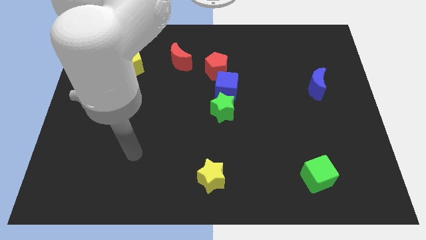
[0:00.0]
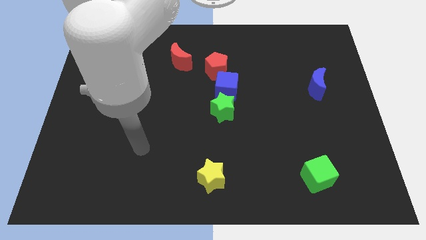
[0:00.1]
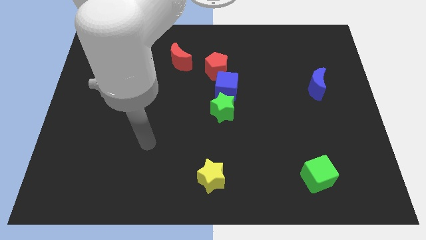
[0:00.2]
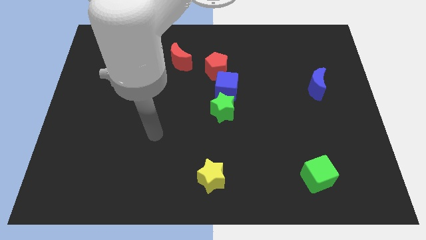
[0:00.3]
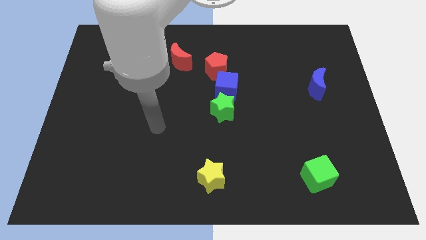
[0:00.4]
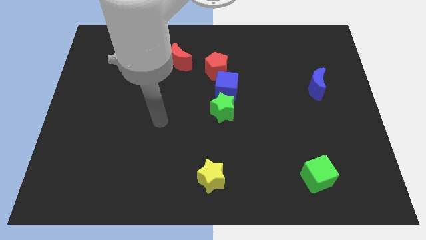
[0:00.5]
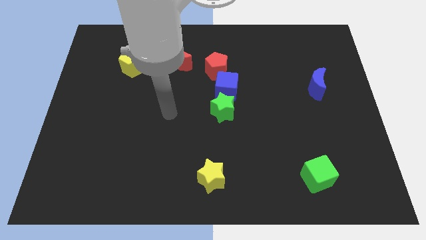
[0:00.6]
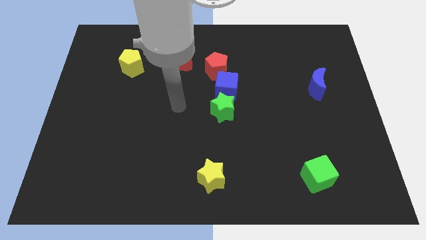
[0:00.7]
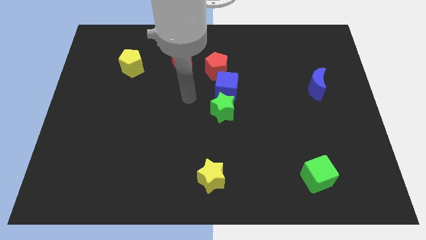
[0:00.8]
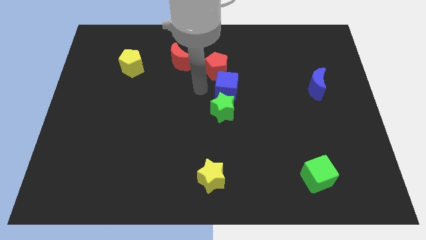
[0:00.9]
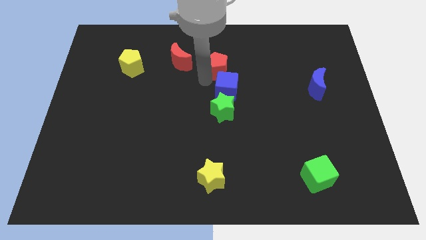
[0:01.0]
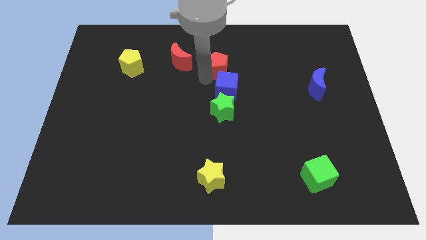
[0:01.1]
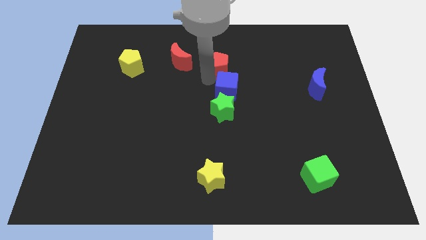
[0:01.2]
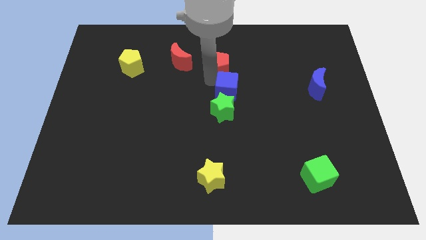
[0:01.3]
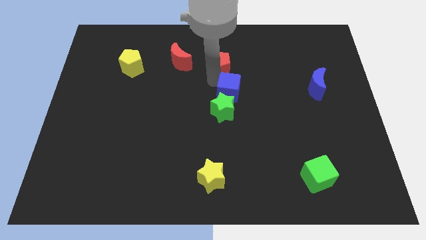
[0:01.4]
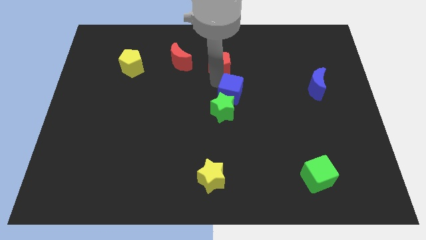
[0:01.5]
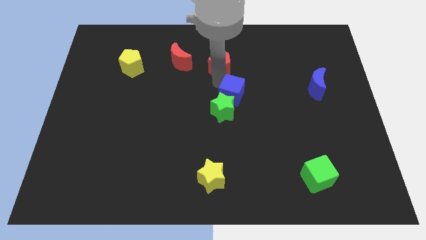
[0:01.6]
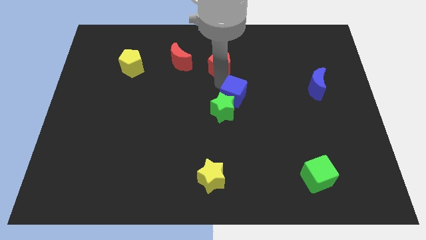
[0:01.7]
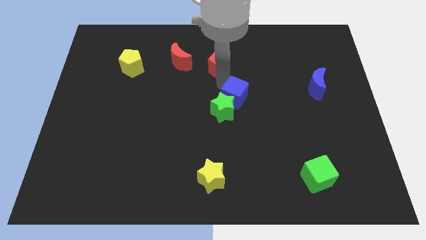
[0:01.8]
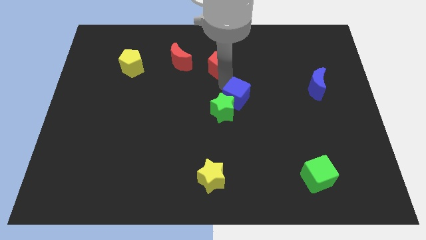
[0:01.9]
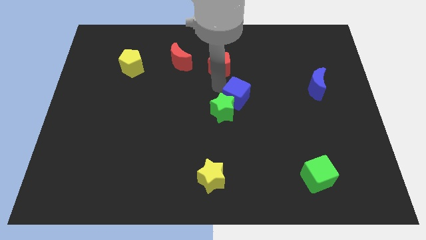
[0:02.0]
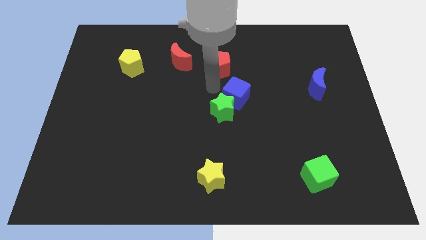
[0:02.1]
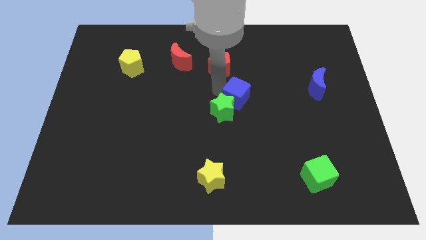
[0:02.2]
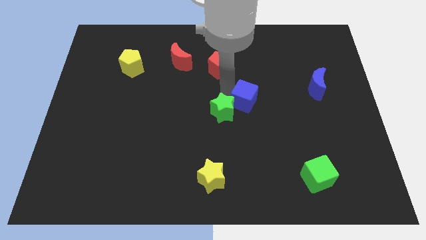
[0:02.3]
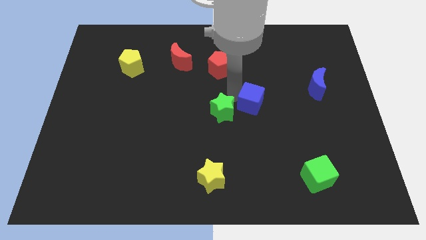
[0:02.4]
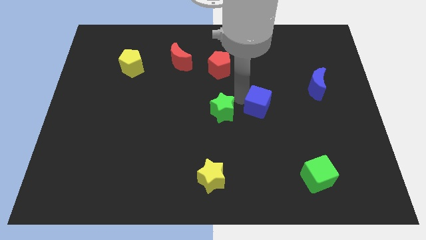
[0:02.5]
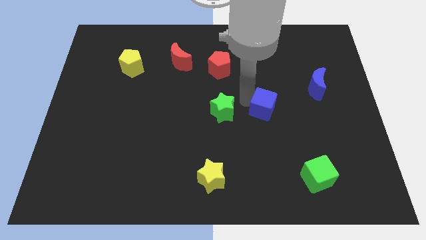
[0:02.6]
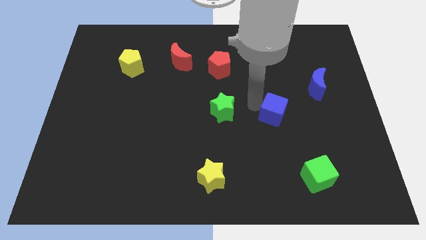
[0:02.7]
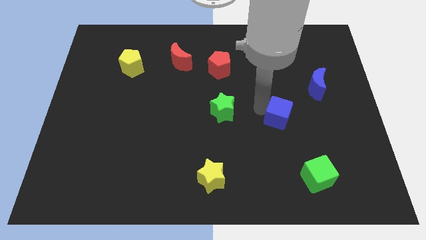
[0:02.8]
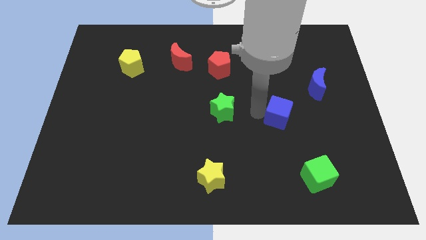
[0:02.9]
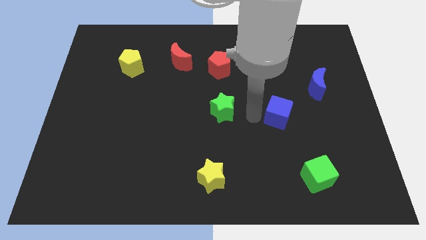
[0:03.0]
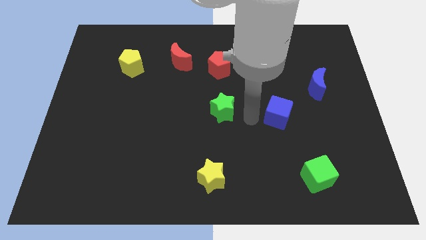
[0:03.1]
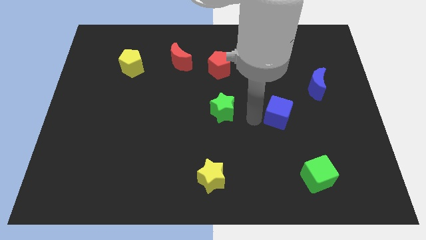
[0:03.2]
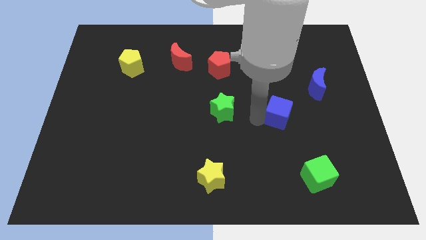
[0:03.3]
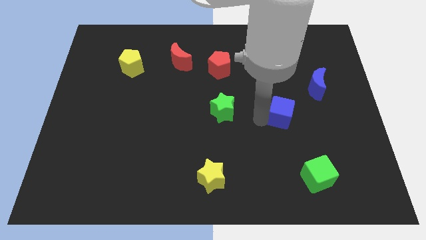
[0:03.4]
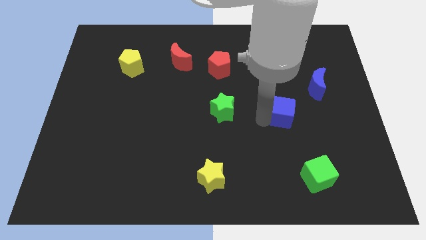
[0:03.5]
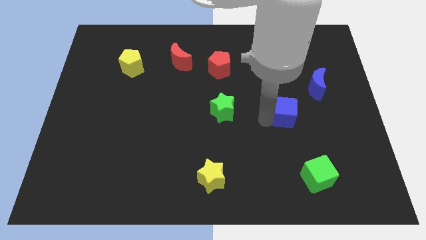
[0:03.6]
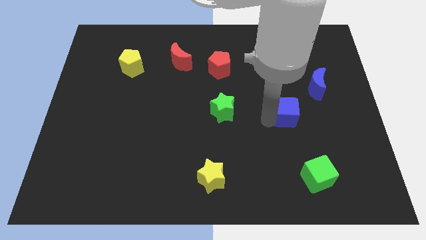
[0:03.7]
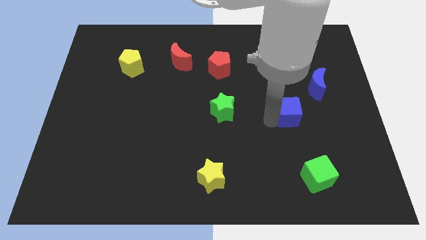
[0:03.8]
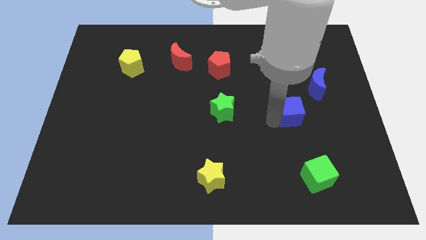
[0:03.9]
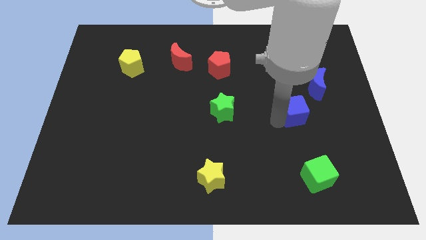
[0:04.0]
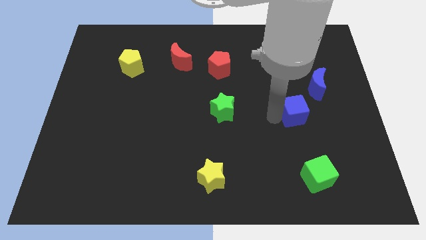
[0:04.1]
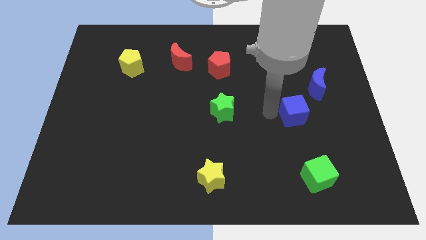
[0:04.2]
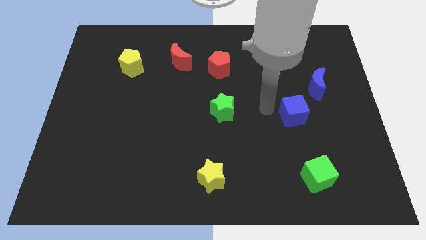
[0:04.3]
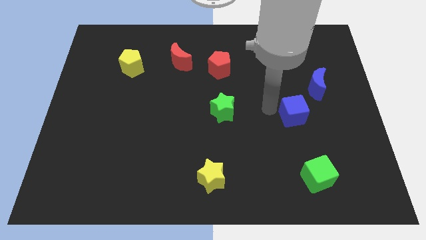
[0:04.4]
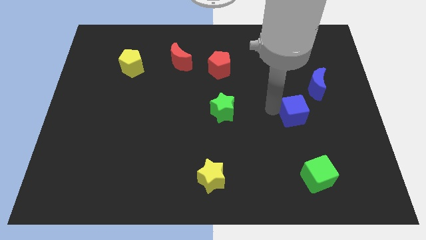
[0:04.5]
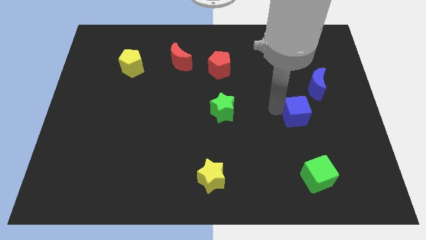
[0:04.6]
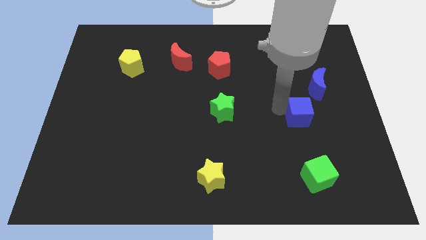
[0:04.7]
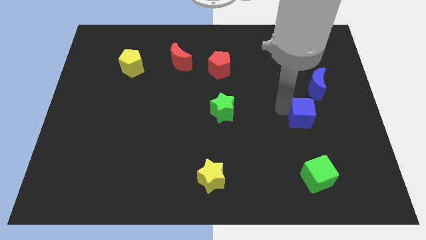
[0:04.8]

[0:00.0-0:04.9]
move the blue cube below the blue moon
